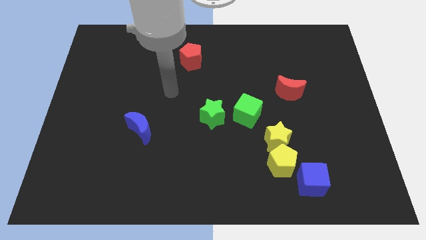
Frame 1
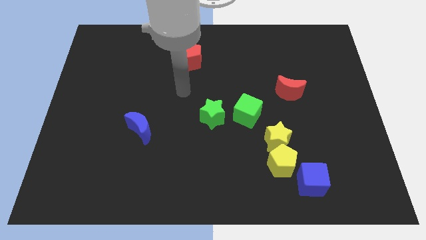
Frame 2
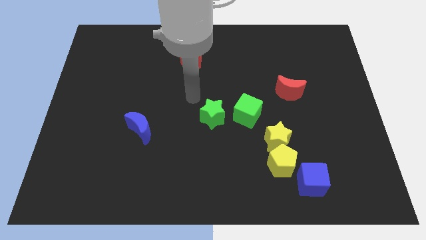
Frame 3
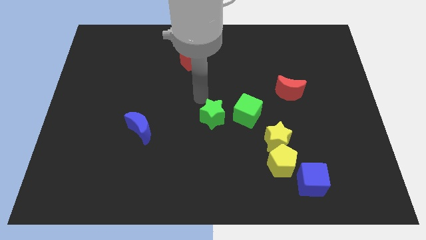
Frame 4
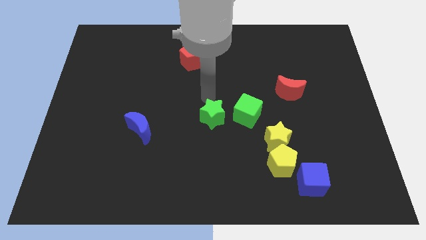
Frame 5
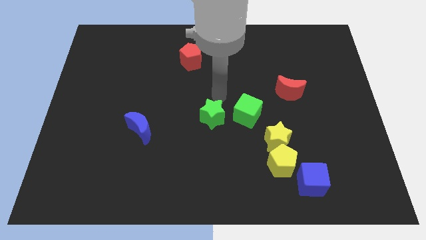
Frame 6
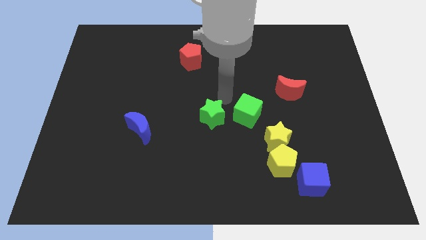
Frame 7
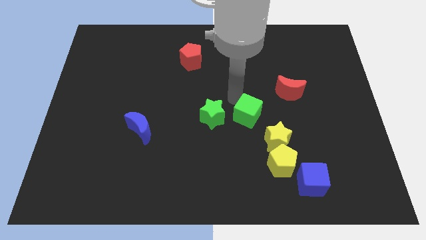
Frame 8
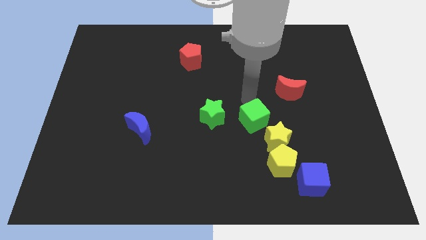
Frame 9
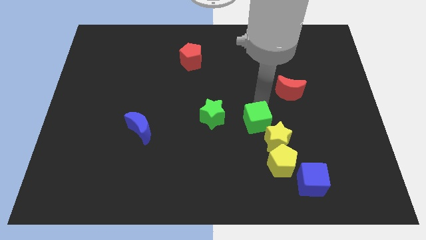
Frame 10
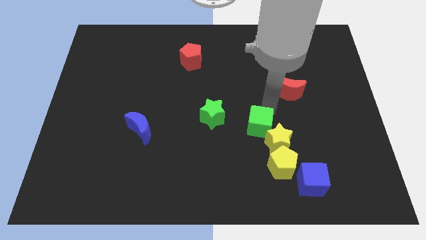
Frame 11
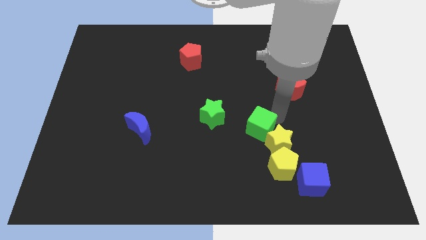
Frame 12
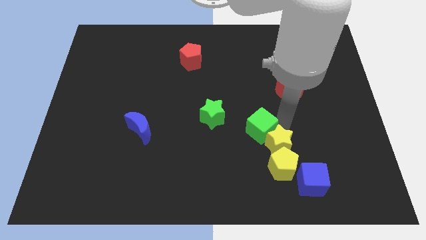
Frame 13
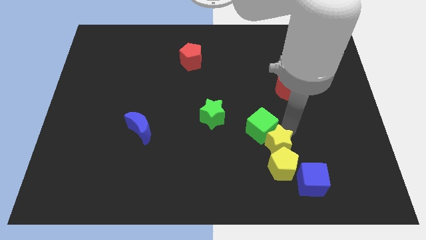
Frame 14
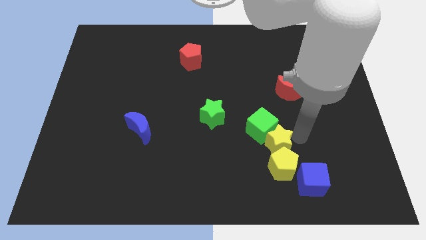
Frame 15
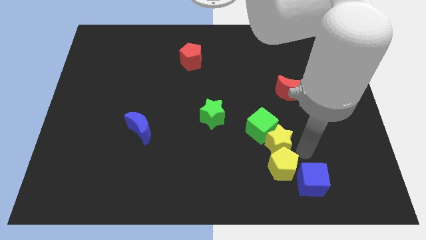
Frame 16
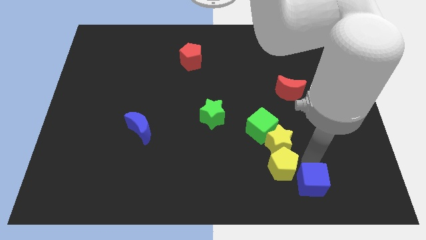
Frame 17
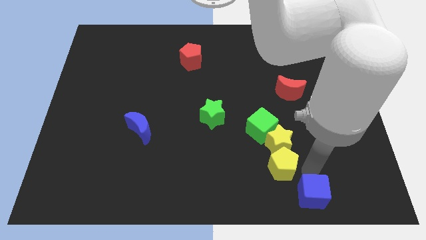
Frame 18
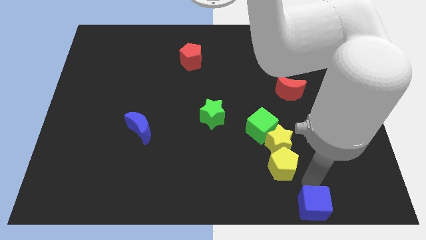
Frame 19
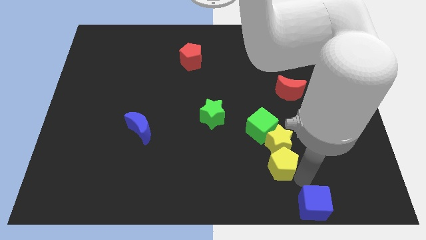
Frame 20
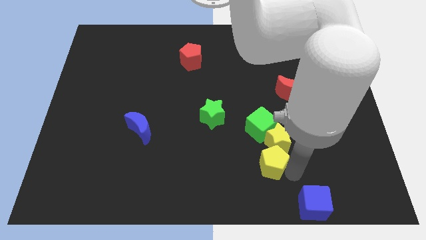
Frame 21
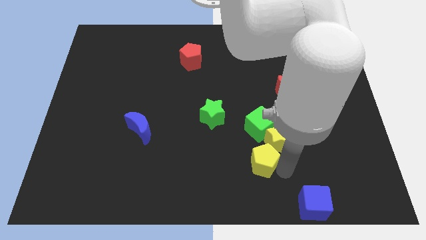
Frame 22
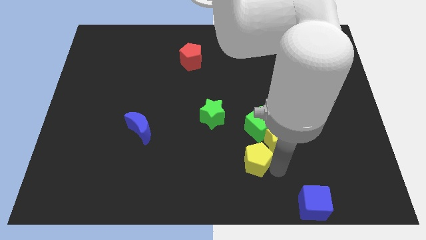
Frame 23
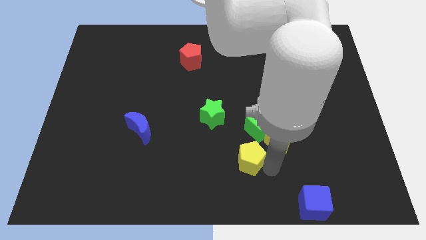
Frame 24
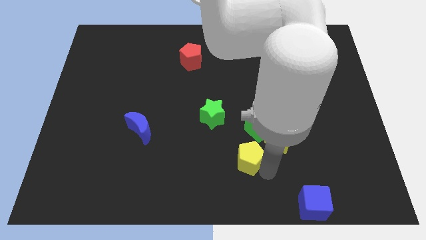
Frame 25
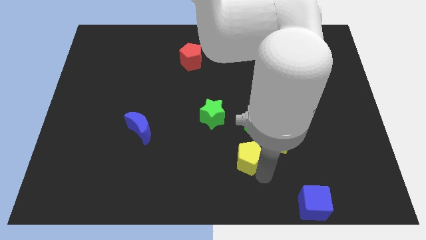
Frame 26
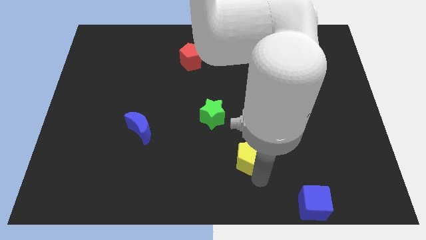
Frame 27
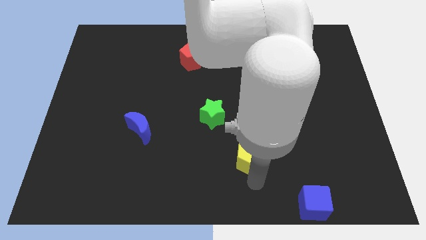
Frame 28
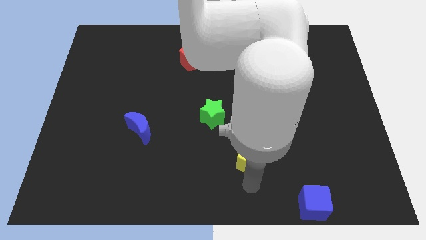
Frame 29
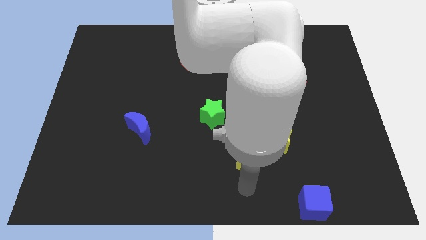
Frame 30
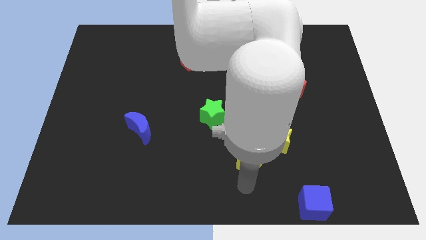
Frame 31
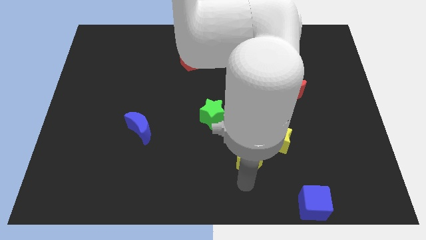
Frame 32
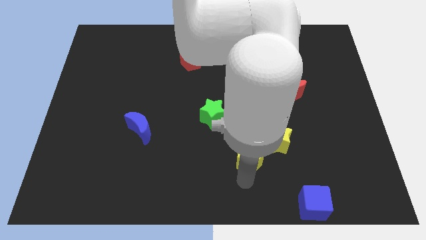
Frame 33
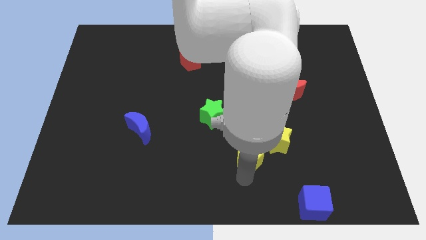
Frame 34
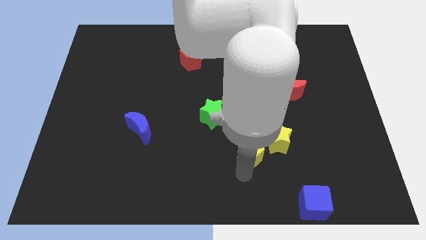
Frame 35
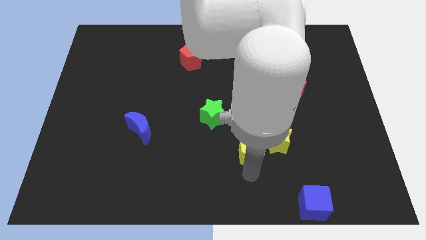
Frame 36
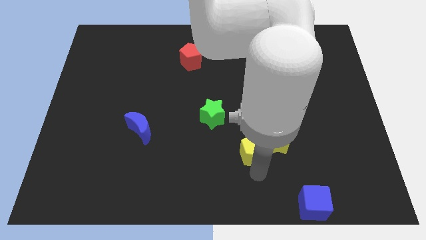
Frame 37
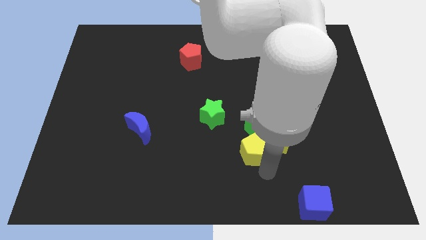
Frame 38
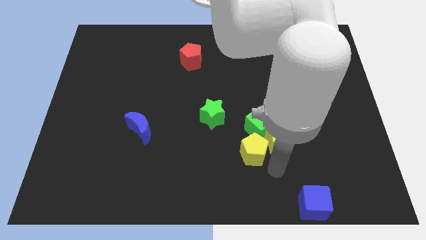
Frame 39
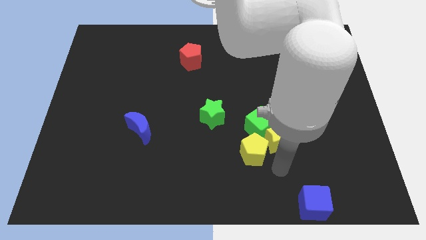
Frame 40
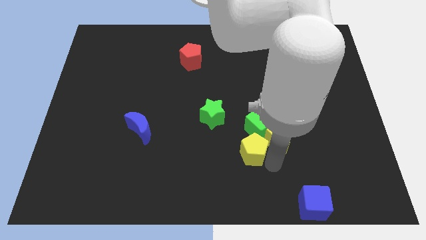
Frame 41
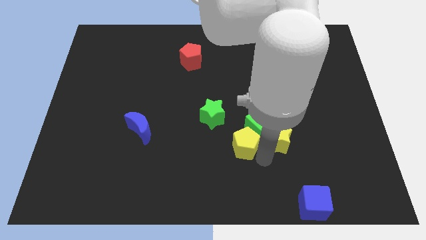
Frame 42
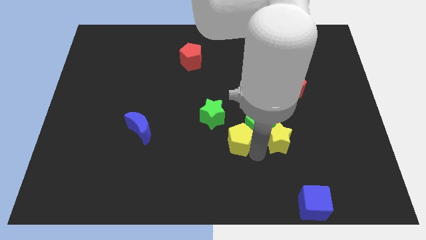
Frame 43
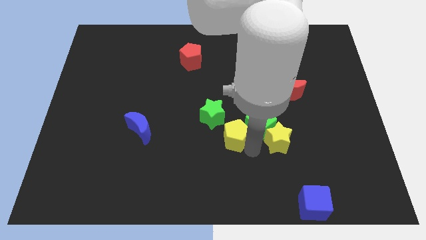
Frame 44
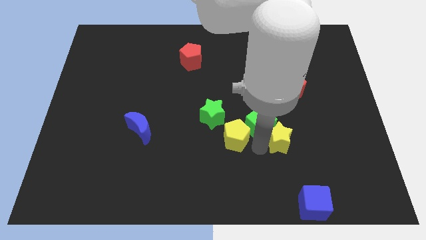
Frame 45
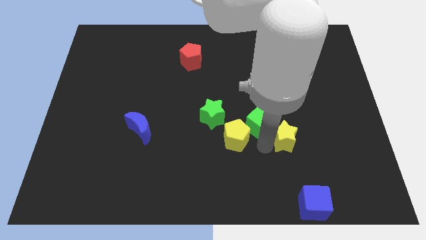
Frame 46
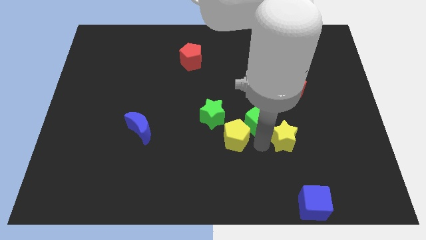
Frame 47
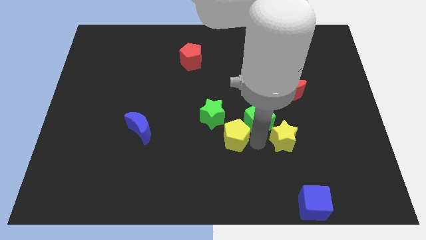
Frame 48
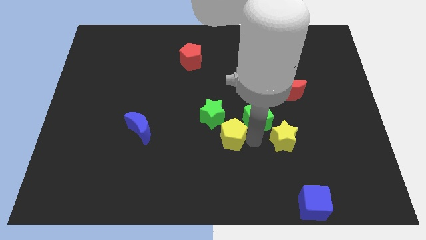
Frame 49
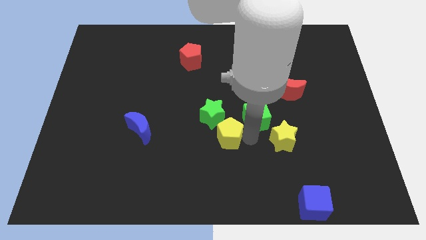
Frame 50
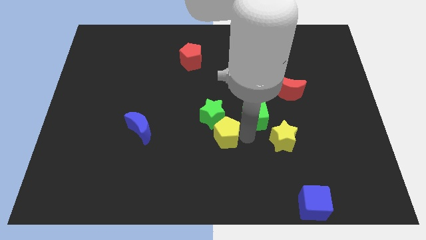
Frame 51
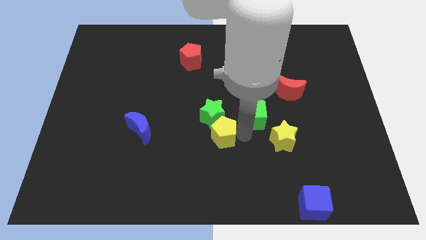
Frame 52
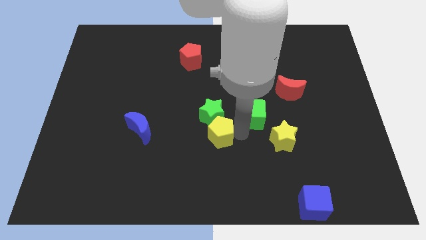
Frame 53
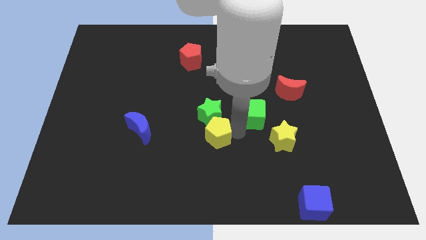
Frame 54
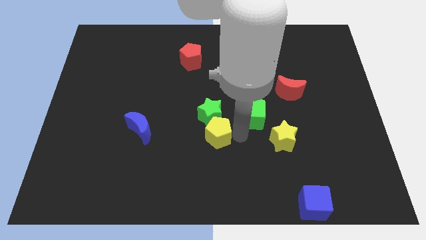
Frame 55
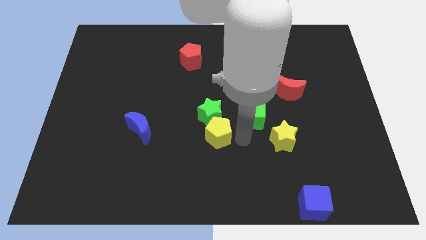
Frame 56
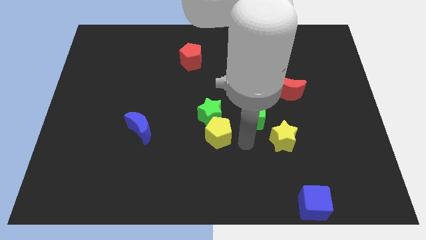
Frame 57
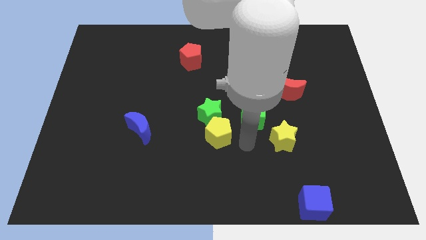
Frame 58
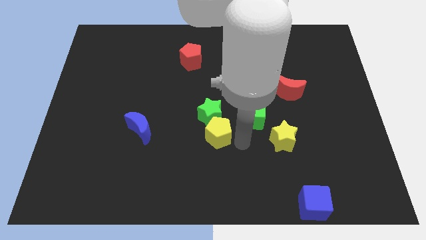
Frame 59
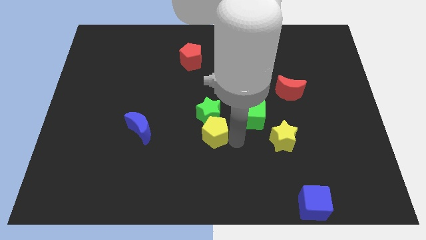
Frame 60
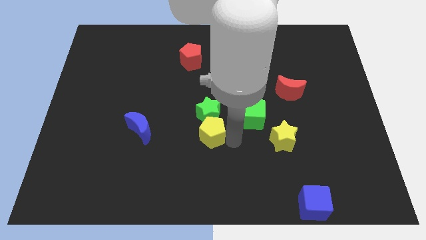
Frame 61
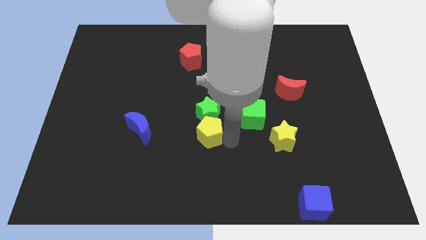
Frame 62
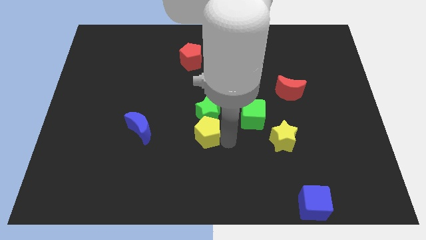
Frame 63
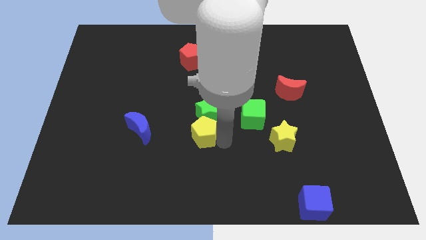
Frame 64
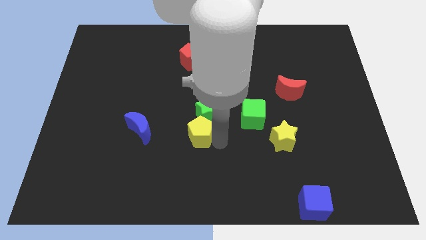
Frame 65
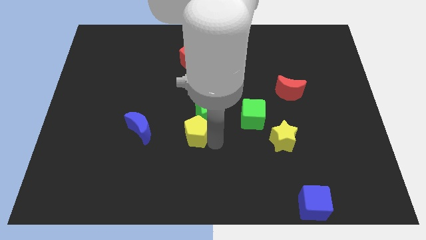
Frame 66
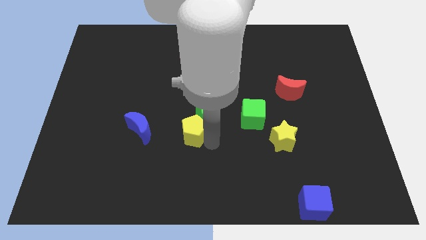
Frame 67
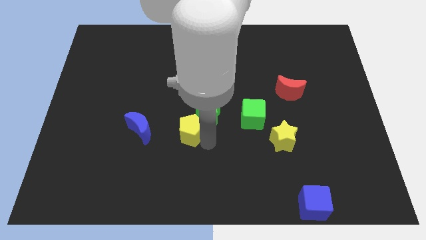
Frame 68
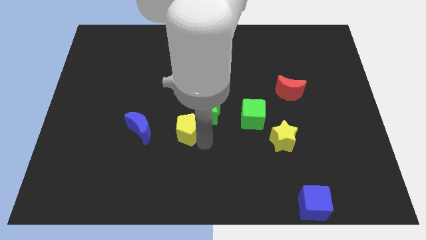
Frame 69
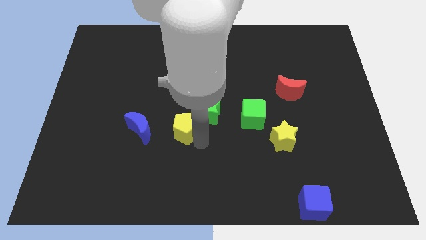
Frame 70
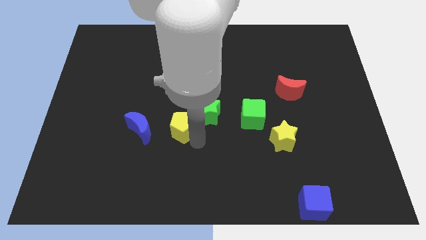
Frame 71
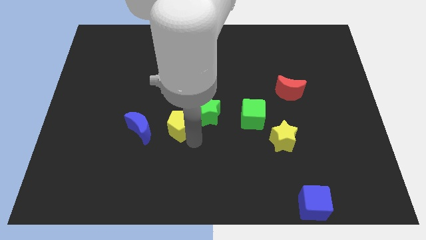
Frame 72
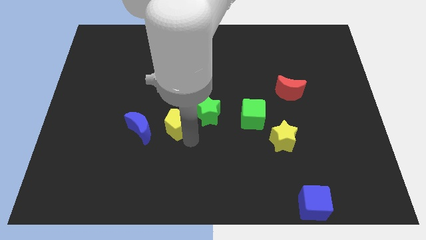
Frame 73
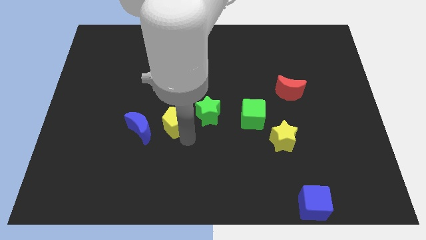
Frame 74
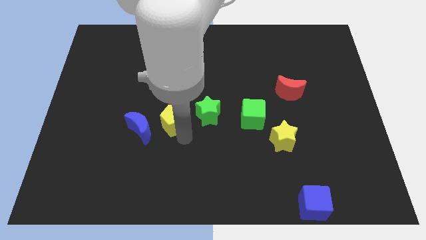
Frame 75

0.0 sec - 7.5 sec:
push the yellow pentagon up and left diagonally

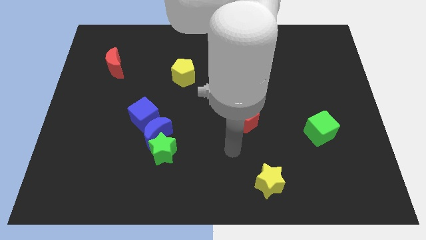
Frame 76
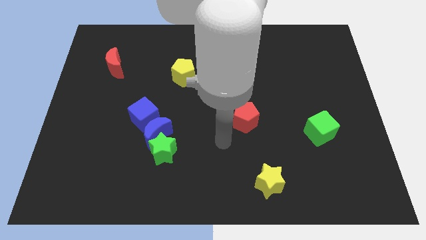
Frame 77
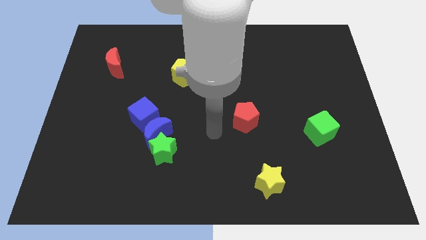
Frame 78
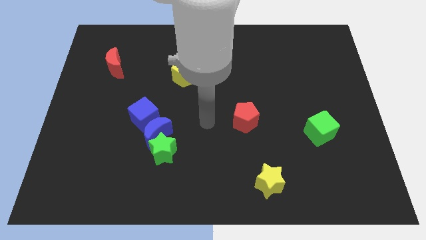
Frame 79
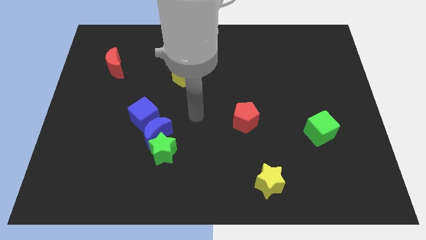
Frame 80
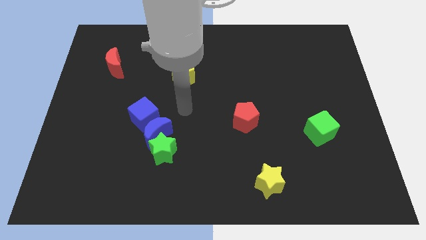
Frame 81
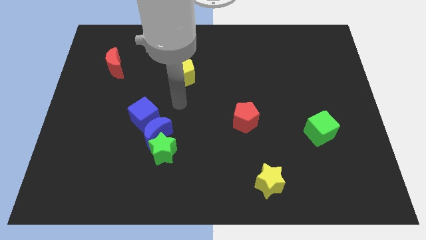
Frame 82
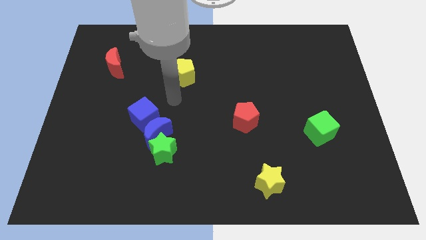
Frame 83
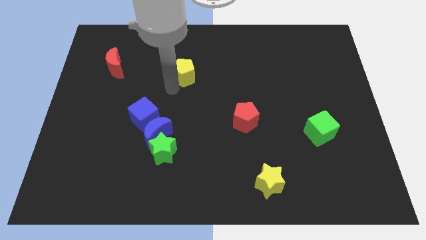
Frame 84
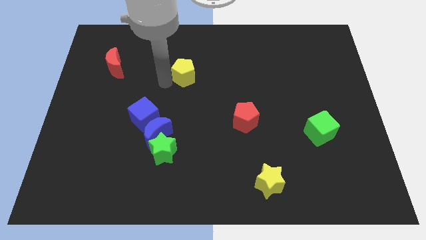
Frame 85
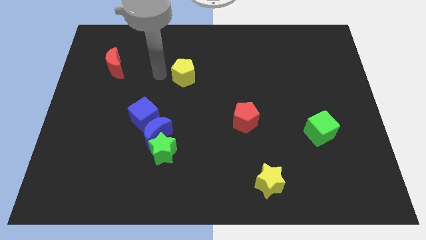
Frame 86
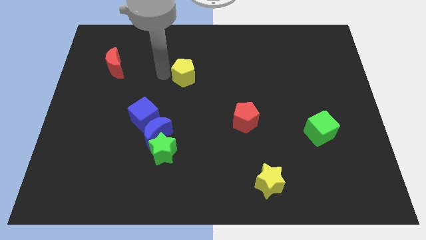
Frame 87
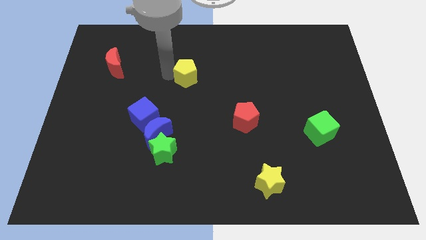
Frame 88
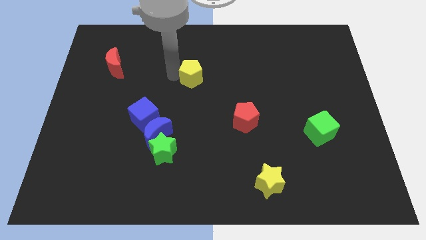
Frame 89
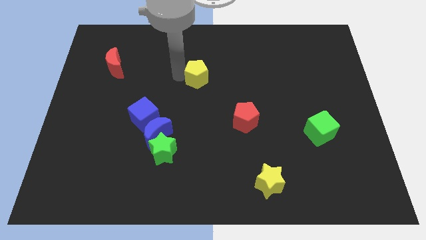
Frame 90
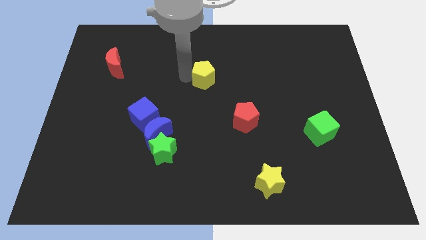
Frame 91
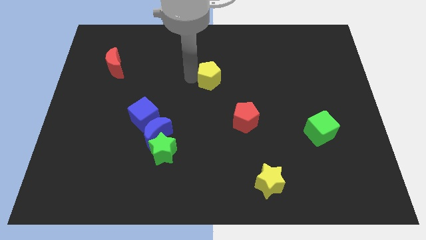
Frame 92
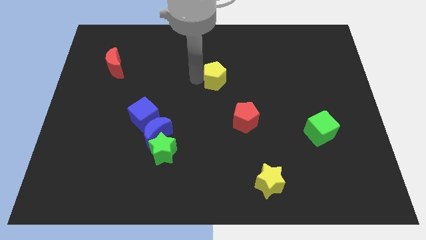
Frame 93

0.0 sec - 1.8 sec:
slide the yellow pentagon a little bit to the right
